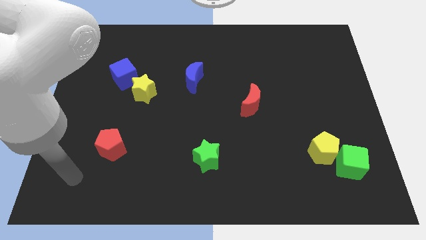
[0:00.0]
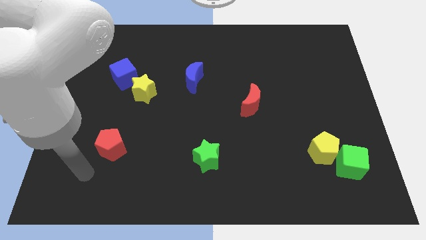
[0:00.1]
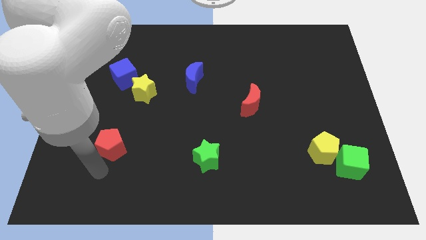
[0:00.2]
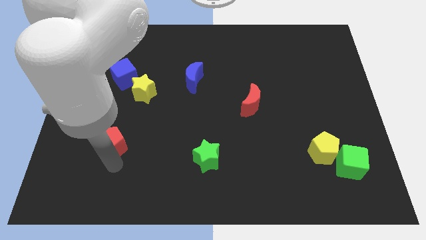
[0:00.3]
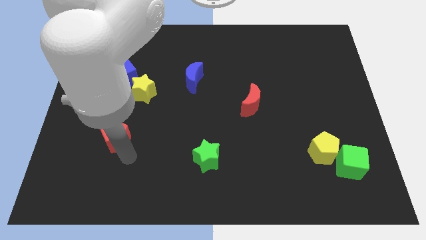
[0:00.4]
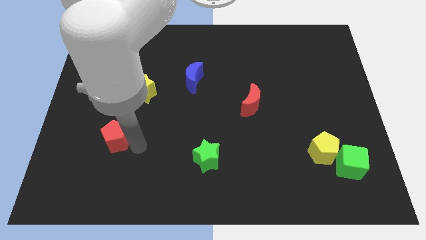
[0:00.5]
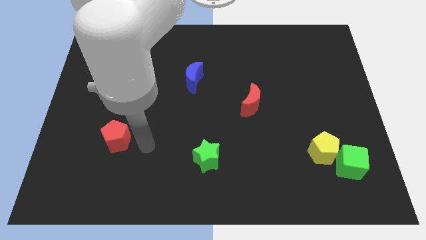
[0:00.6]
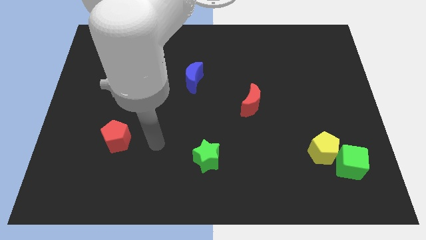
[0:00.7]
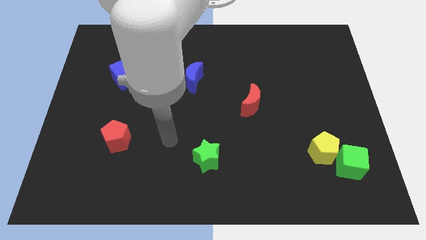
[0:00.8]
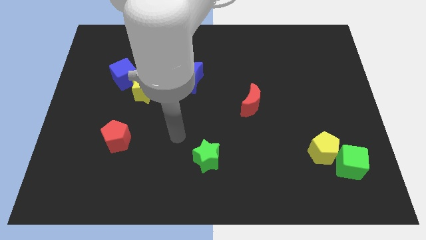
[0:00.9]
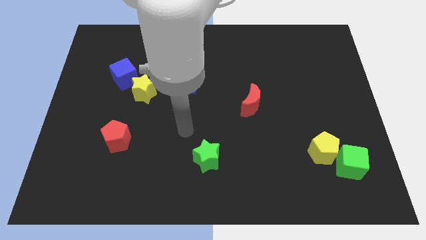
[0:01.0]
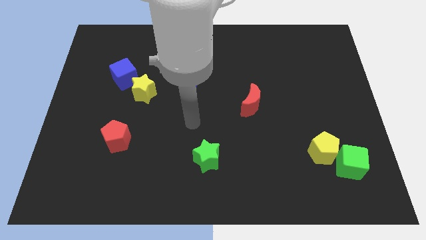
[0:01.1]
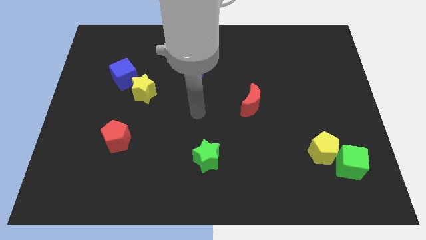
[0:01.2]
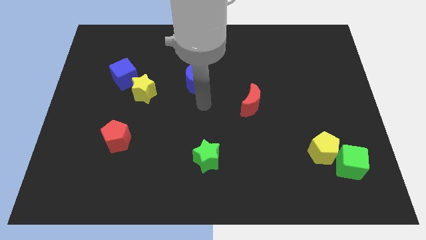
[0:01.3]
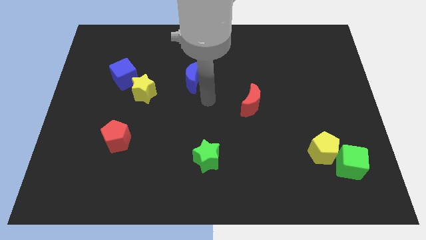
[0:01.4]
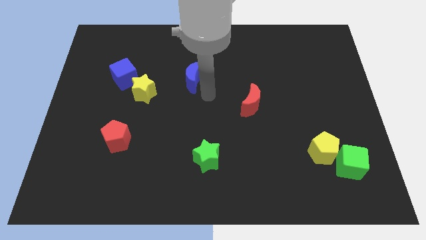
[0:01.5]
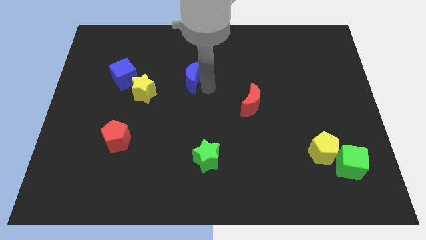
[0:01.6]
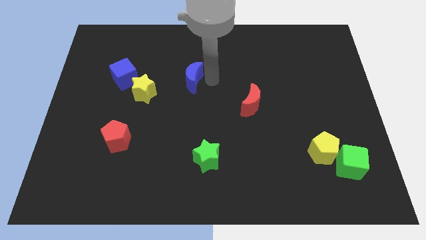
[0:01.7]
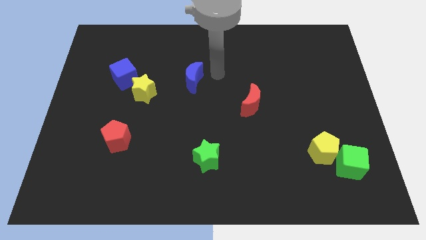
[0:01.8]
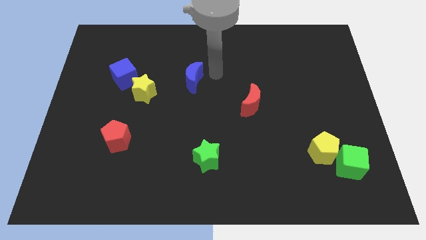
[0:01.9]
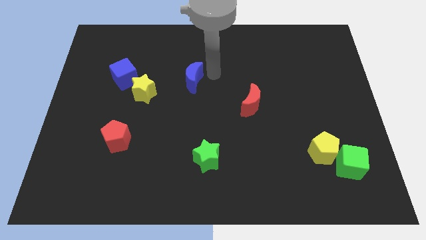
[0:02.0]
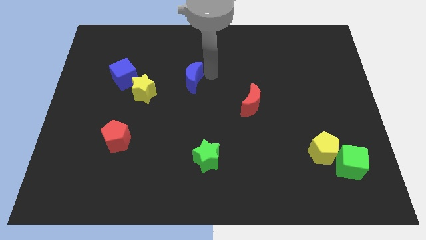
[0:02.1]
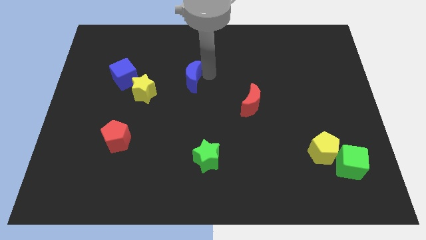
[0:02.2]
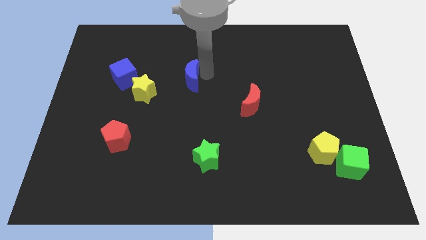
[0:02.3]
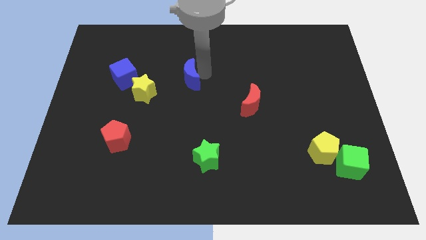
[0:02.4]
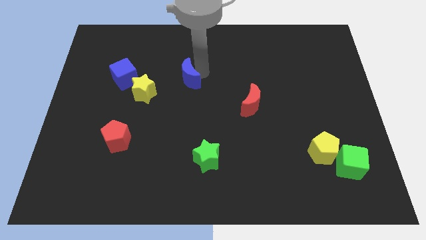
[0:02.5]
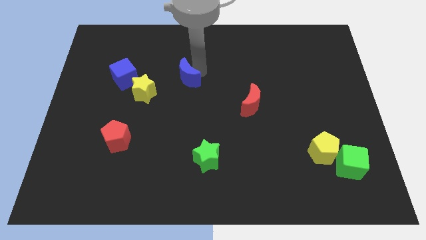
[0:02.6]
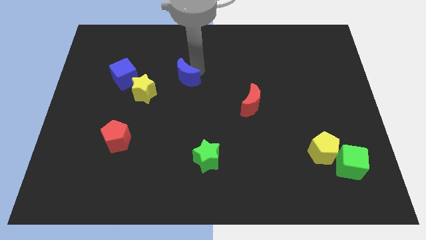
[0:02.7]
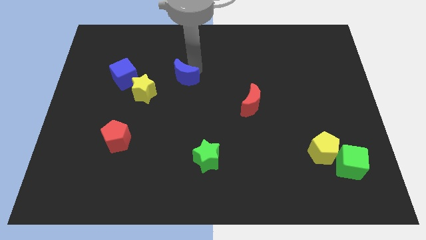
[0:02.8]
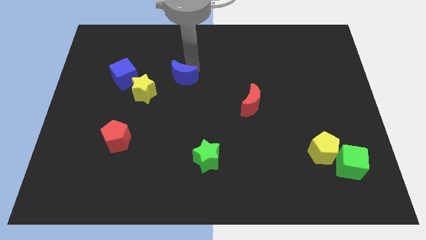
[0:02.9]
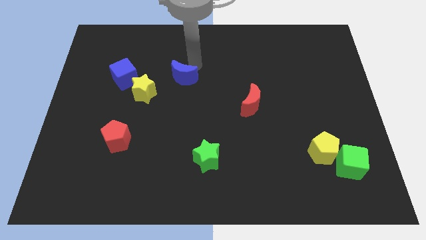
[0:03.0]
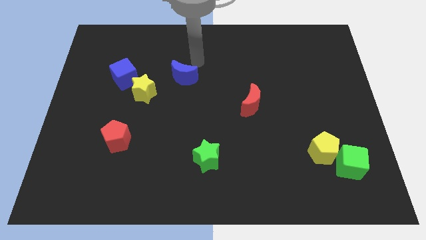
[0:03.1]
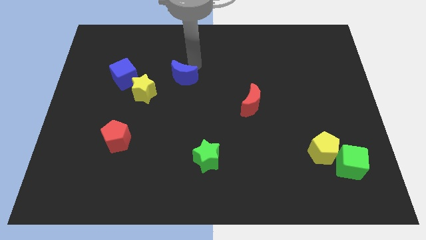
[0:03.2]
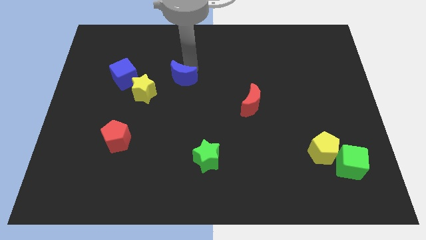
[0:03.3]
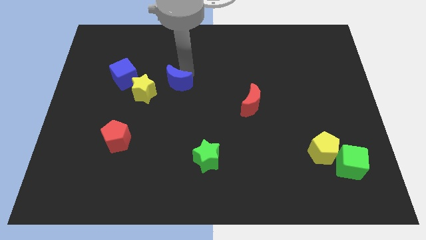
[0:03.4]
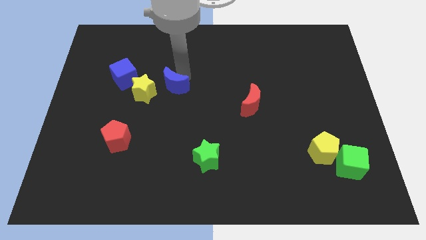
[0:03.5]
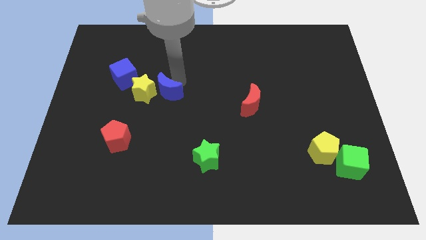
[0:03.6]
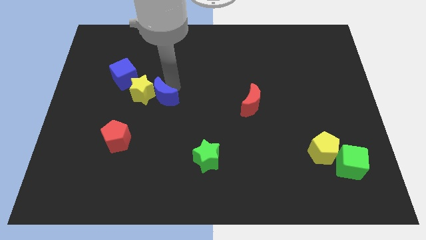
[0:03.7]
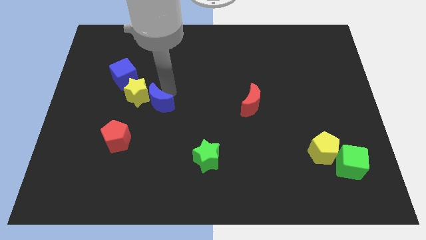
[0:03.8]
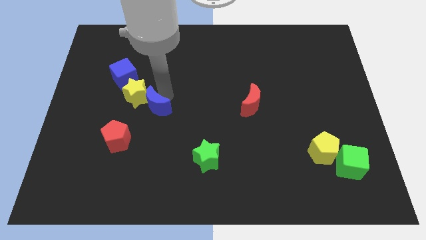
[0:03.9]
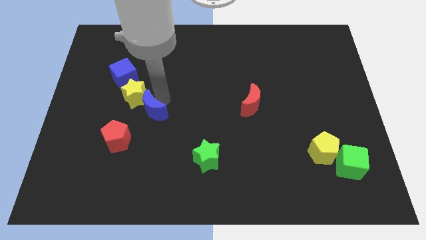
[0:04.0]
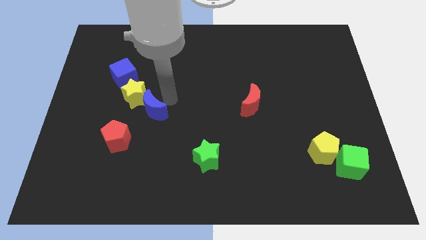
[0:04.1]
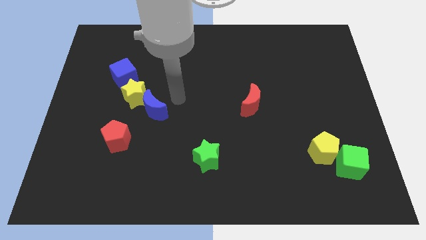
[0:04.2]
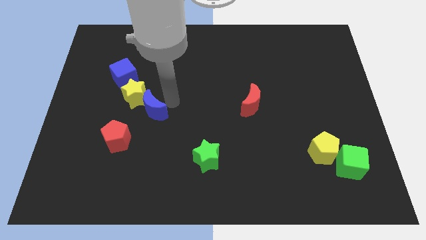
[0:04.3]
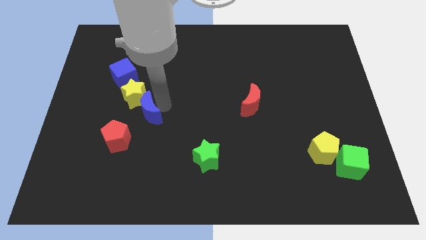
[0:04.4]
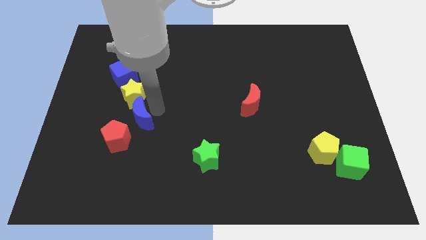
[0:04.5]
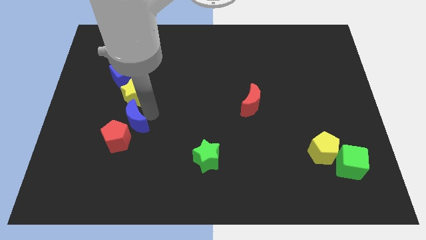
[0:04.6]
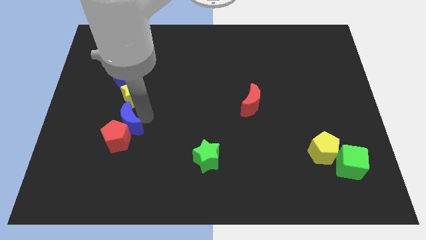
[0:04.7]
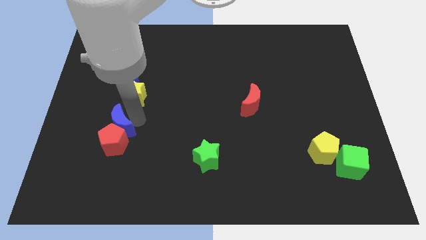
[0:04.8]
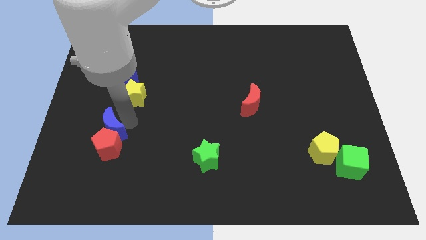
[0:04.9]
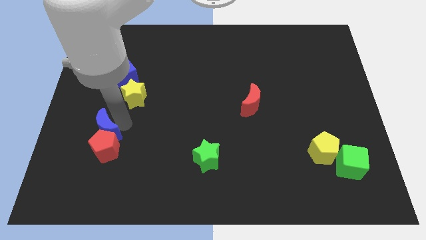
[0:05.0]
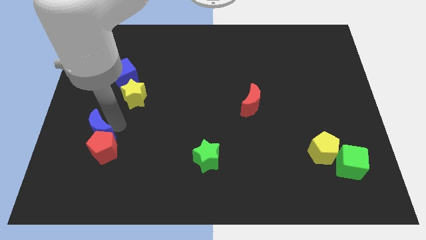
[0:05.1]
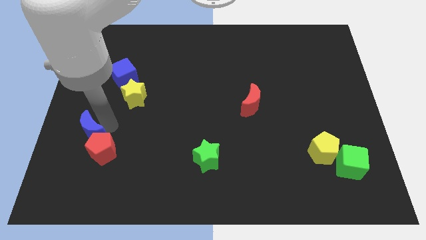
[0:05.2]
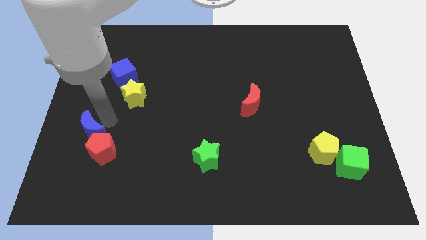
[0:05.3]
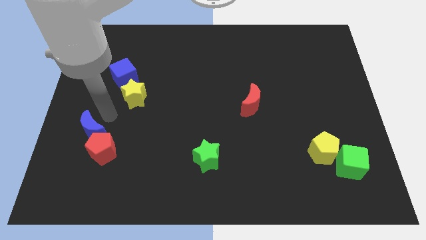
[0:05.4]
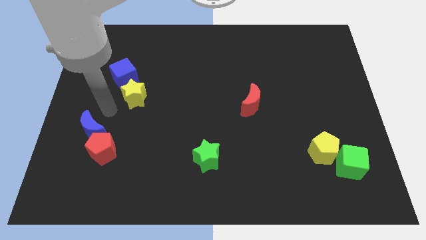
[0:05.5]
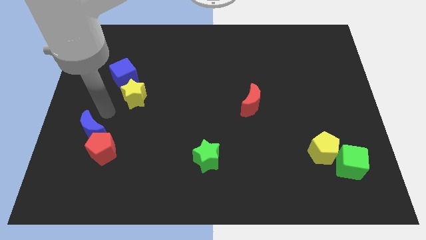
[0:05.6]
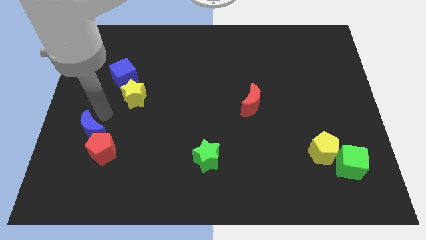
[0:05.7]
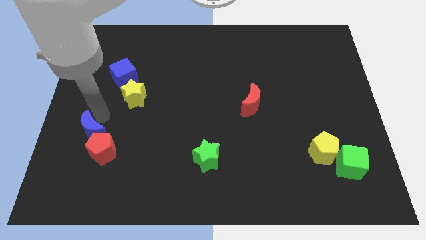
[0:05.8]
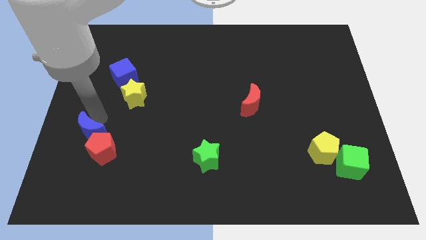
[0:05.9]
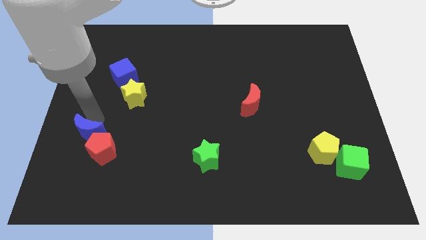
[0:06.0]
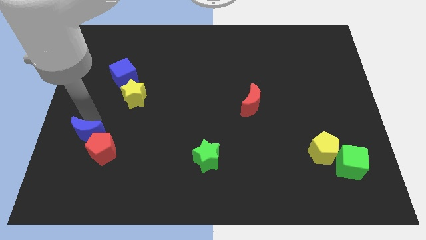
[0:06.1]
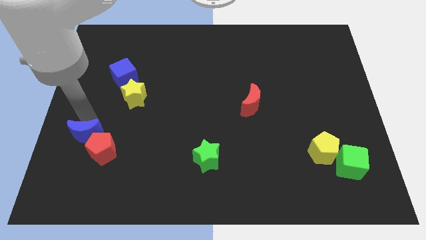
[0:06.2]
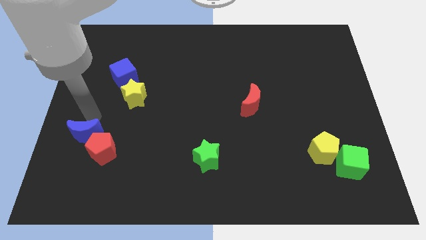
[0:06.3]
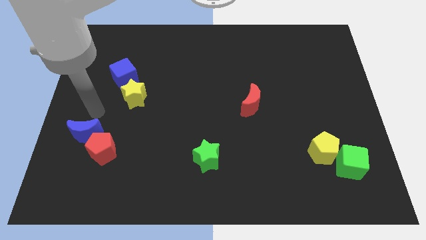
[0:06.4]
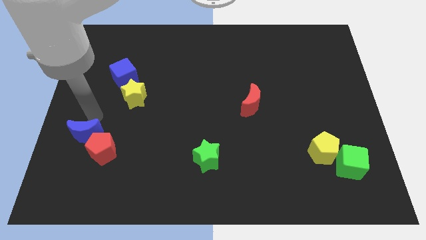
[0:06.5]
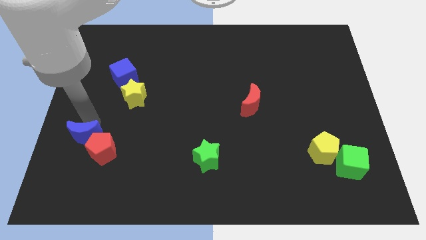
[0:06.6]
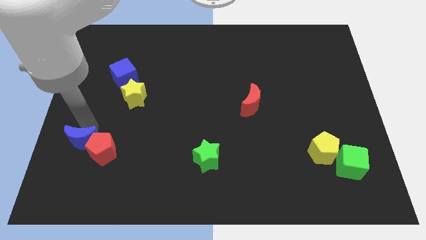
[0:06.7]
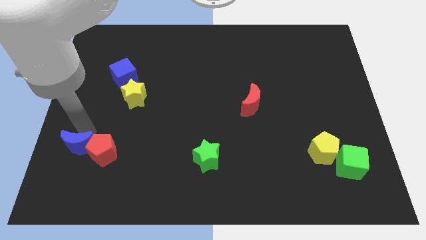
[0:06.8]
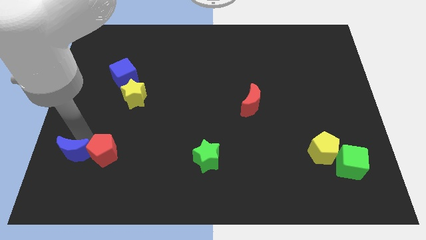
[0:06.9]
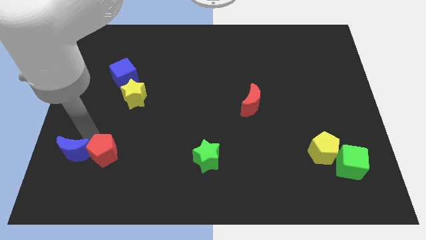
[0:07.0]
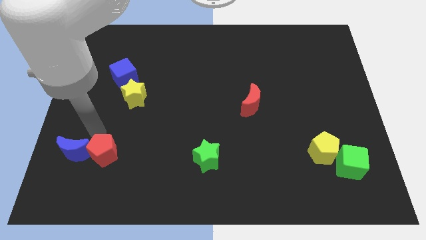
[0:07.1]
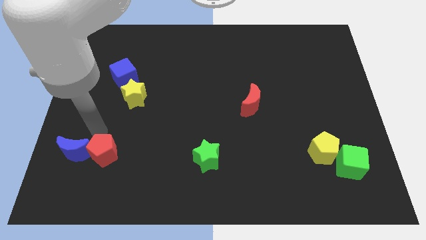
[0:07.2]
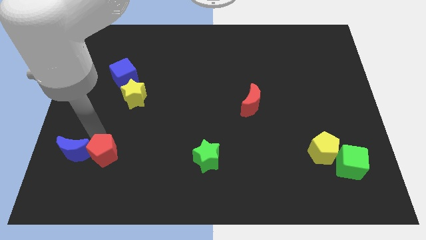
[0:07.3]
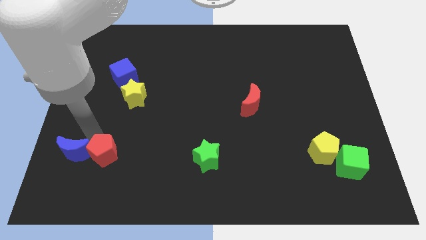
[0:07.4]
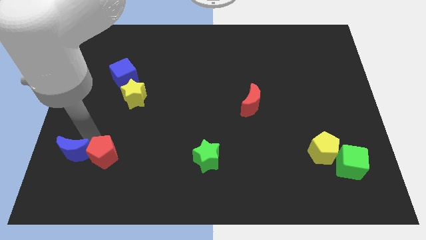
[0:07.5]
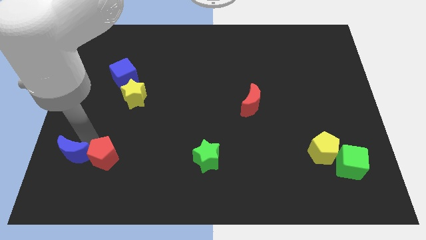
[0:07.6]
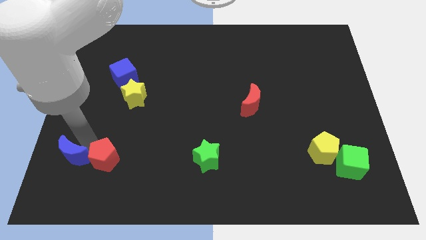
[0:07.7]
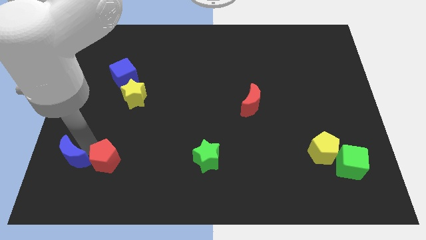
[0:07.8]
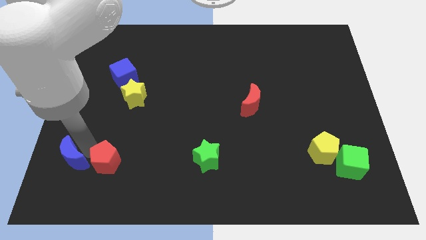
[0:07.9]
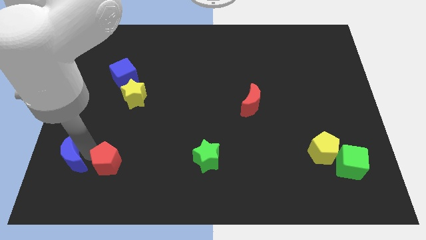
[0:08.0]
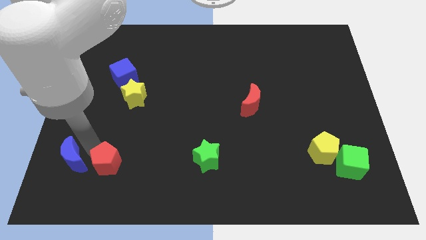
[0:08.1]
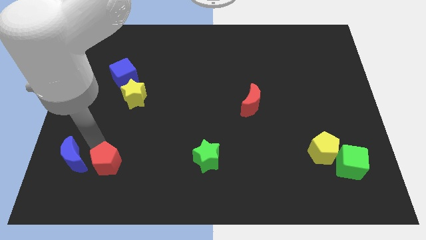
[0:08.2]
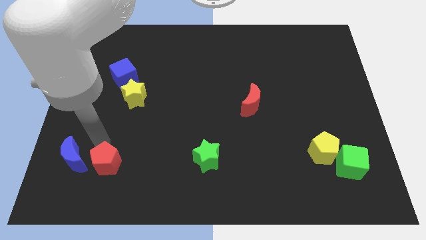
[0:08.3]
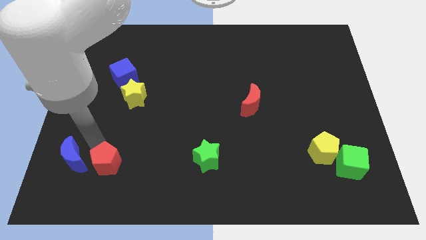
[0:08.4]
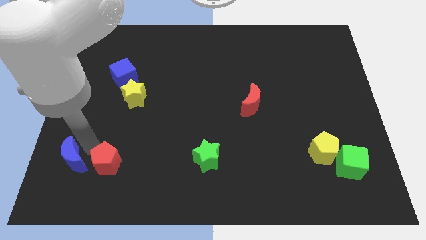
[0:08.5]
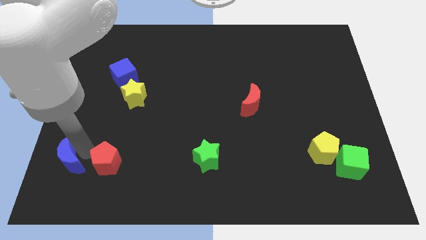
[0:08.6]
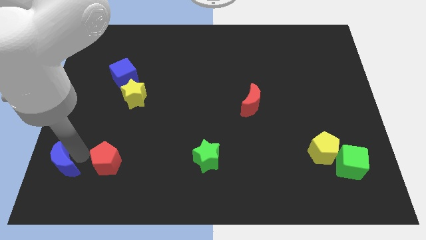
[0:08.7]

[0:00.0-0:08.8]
move the blue moon to the bottom left of the board
